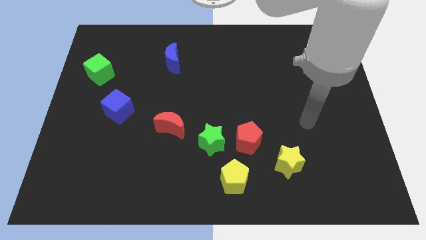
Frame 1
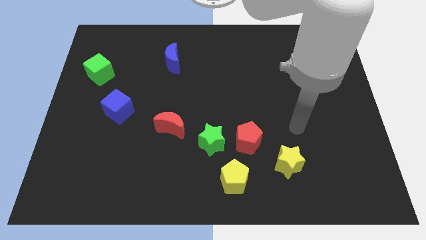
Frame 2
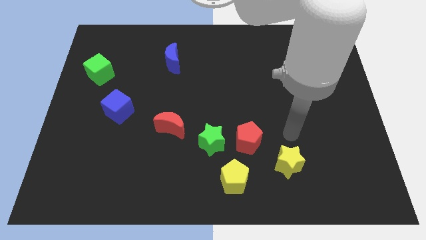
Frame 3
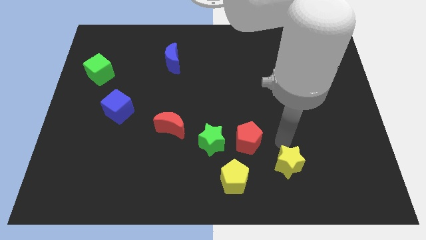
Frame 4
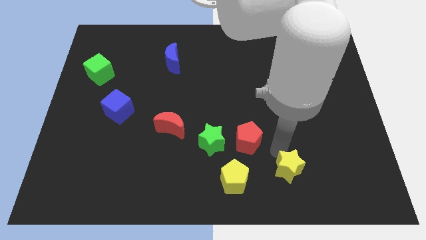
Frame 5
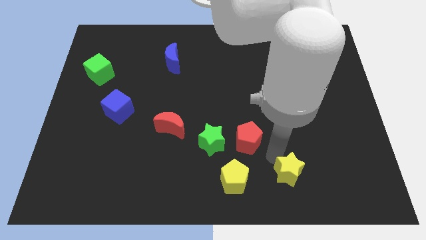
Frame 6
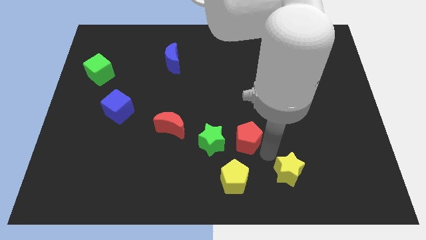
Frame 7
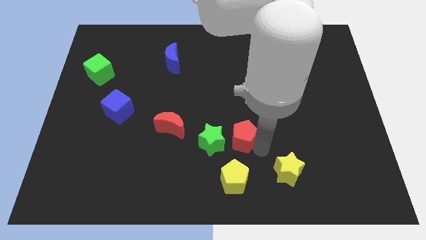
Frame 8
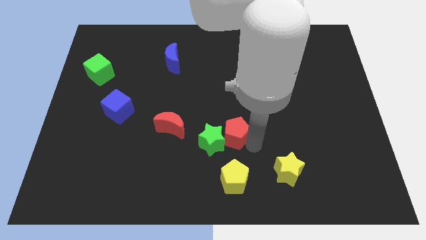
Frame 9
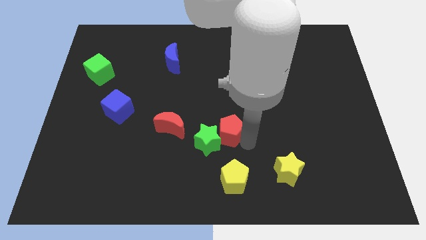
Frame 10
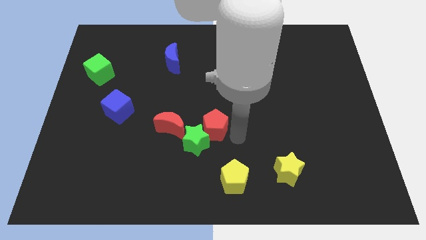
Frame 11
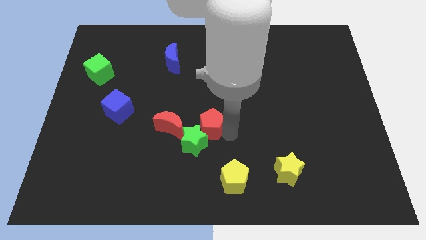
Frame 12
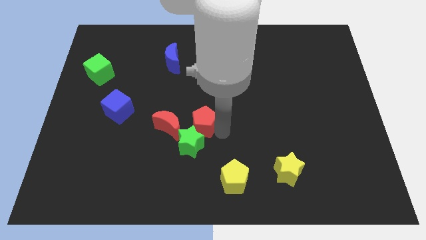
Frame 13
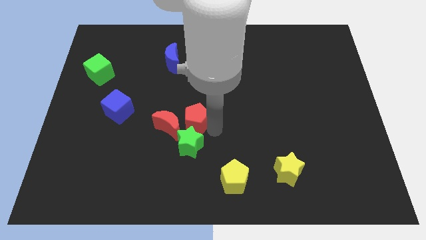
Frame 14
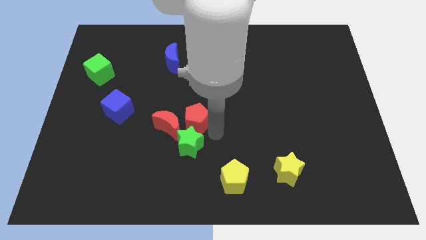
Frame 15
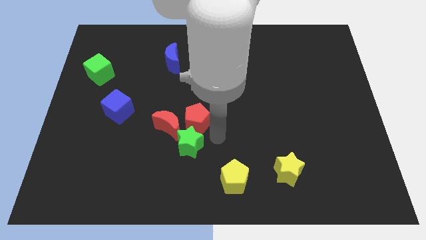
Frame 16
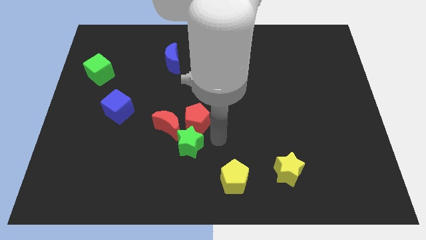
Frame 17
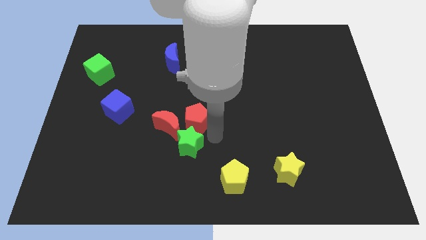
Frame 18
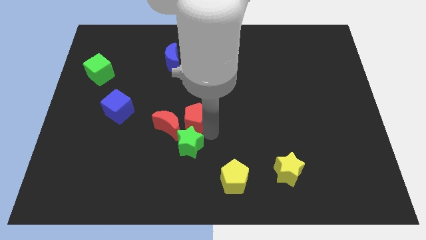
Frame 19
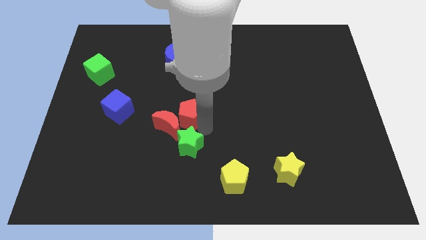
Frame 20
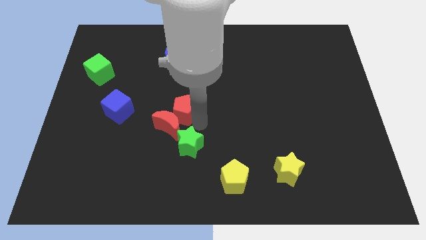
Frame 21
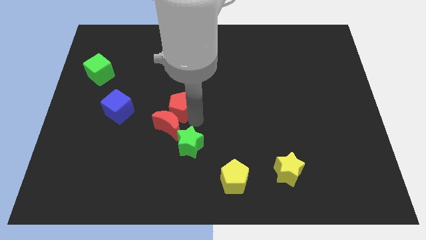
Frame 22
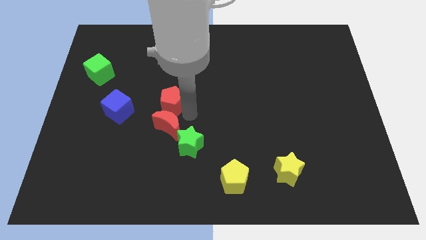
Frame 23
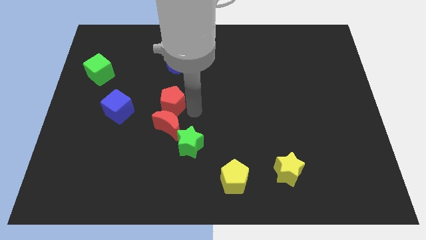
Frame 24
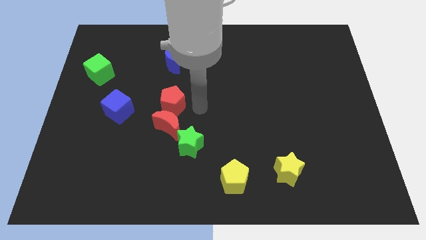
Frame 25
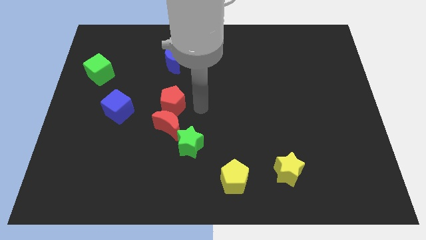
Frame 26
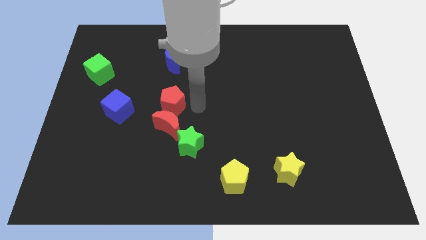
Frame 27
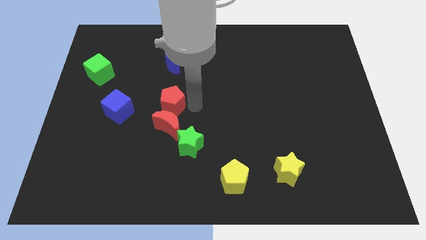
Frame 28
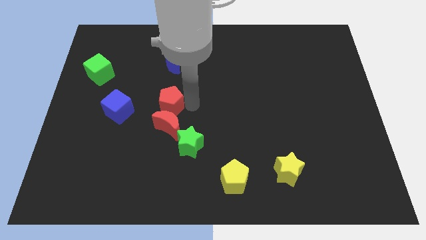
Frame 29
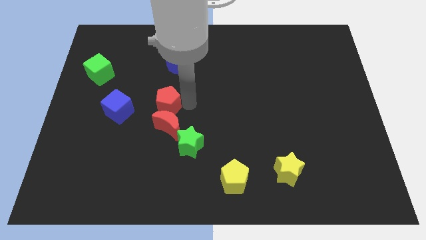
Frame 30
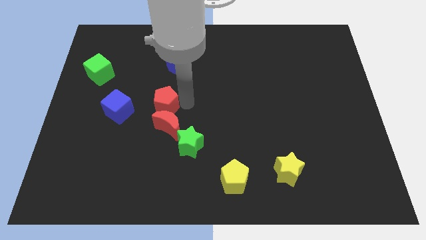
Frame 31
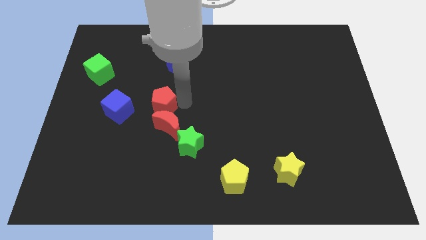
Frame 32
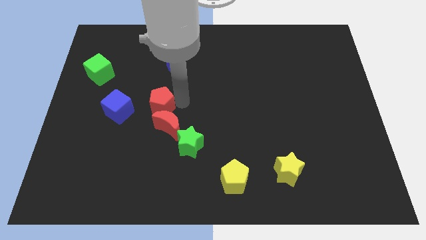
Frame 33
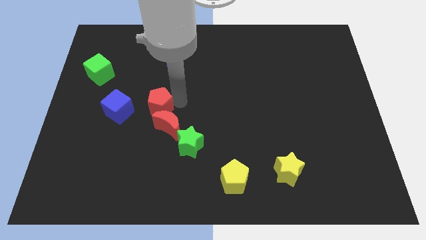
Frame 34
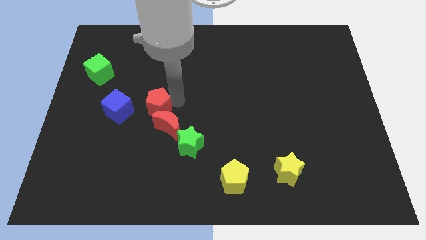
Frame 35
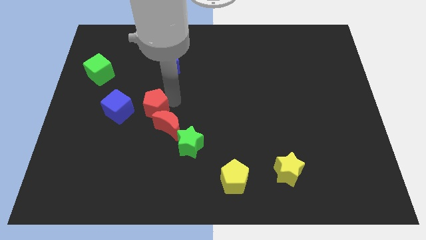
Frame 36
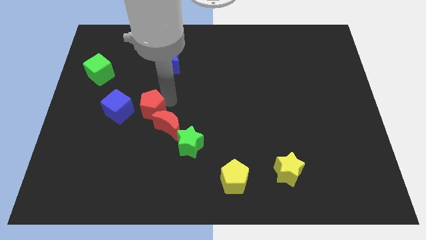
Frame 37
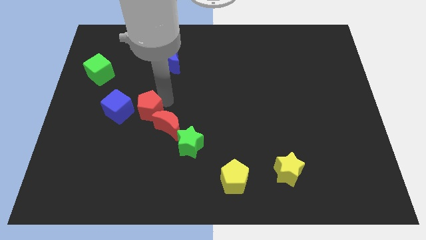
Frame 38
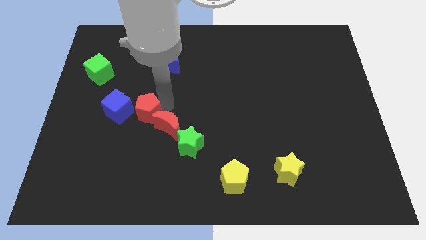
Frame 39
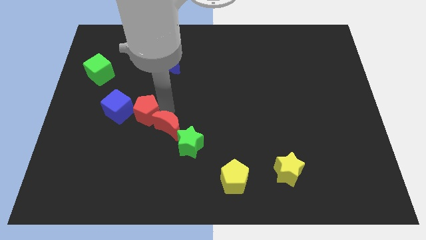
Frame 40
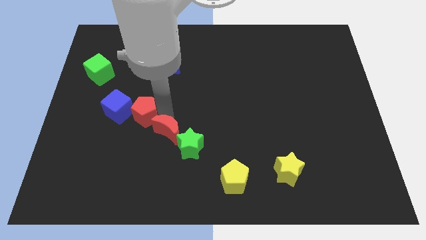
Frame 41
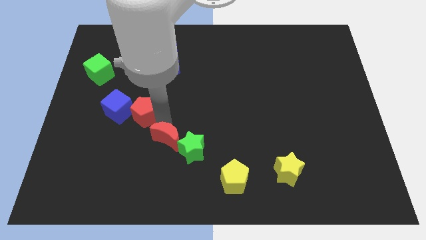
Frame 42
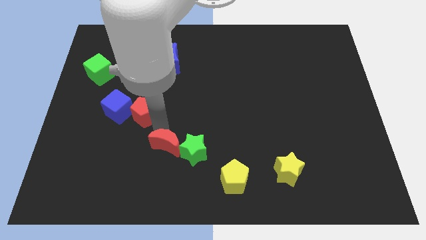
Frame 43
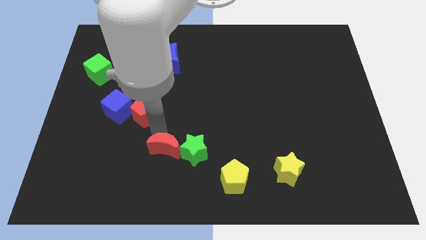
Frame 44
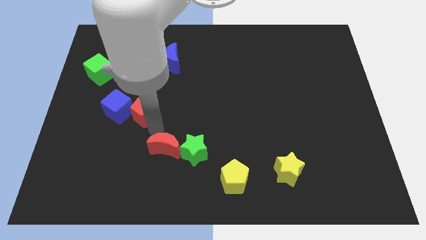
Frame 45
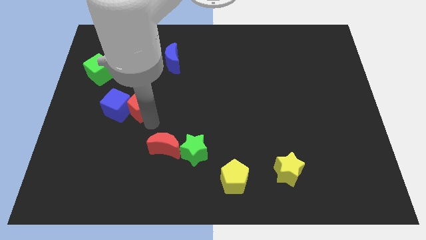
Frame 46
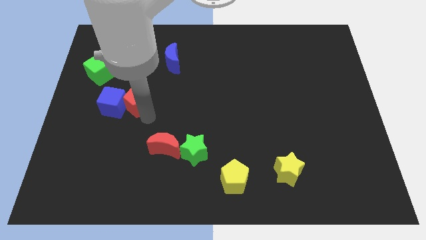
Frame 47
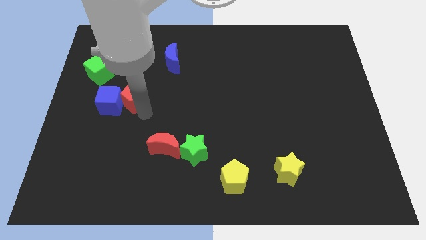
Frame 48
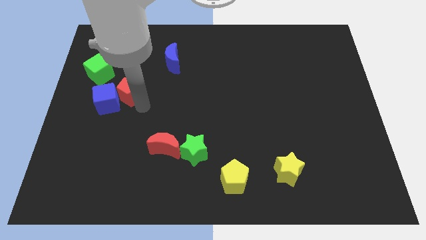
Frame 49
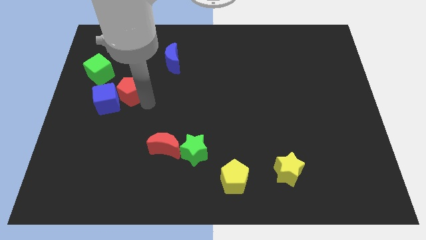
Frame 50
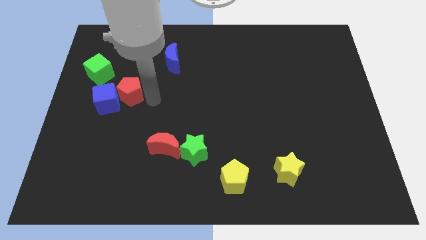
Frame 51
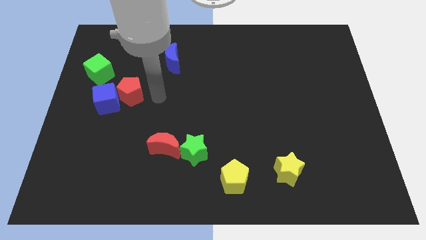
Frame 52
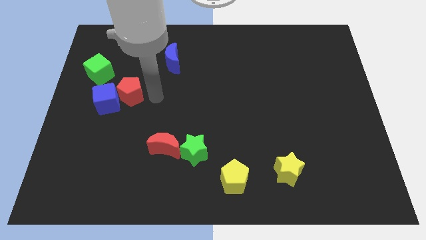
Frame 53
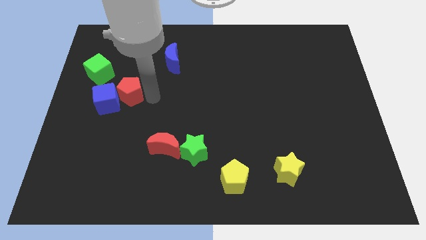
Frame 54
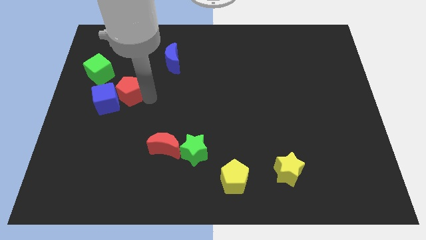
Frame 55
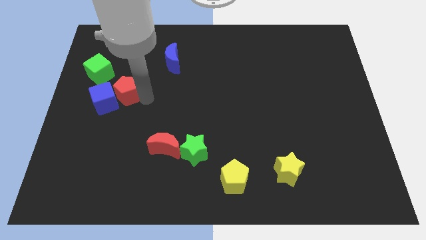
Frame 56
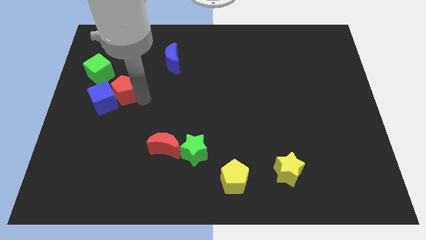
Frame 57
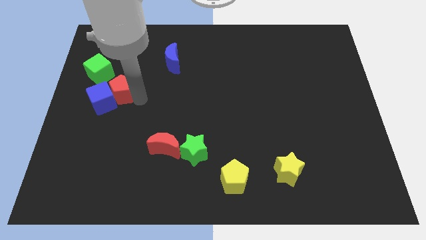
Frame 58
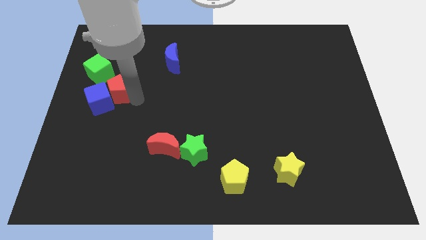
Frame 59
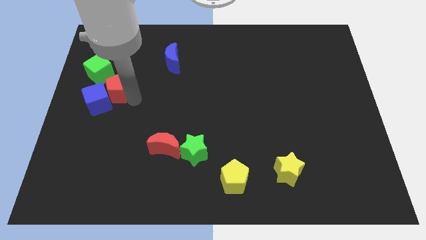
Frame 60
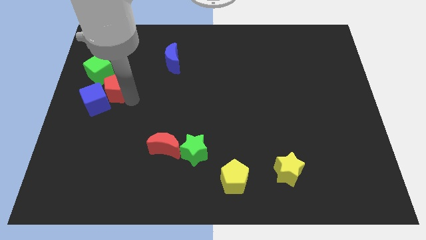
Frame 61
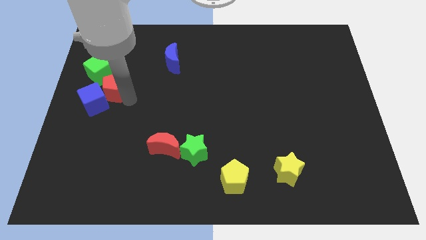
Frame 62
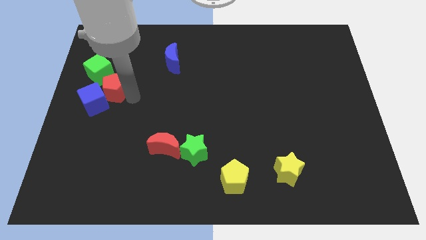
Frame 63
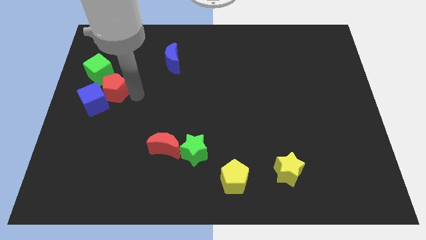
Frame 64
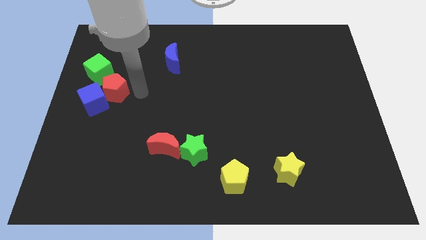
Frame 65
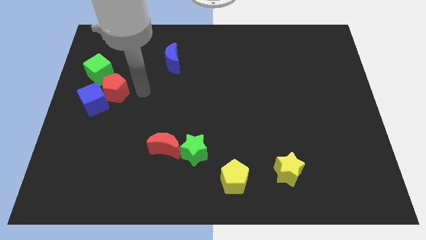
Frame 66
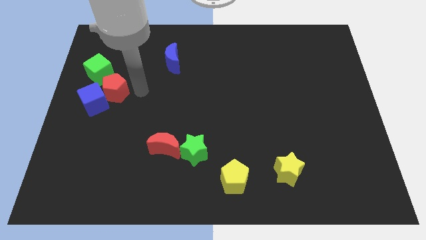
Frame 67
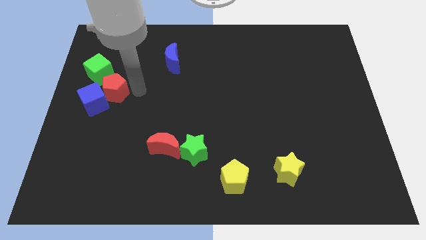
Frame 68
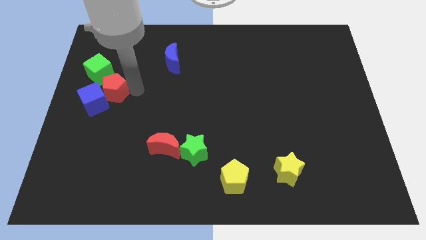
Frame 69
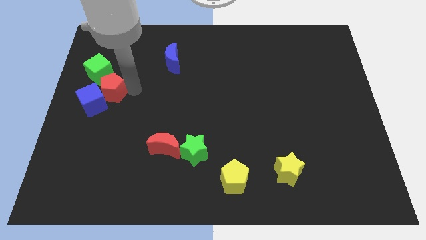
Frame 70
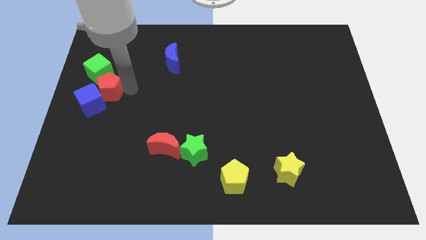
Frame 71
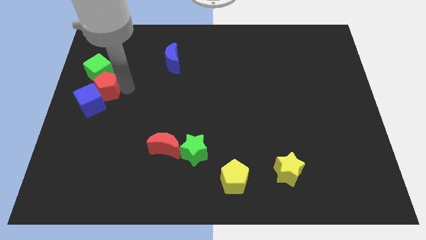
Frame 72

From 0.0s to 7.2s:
push the red pentagon to the left side of the board
